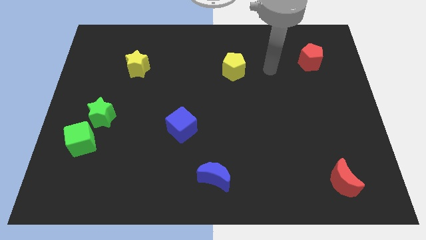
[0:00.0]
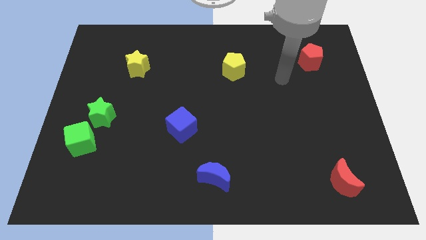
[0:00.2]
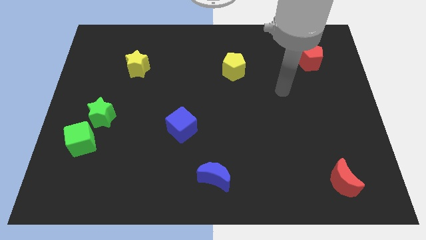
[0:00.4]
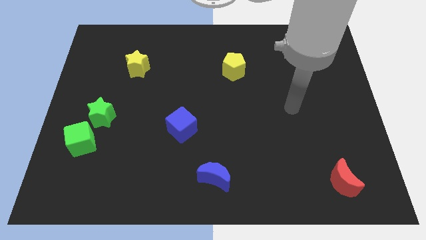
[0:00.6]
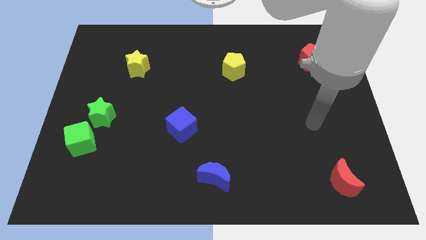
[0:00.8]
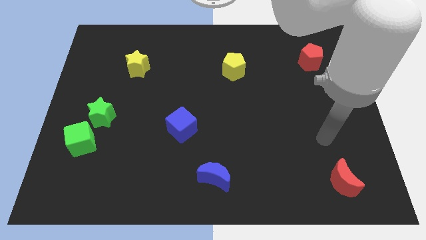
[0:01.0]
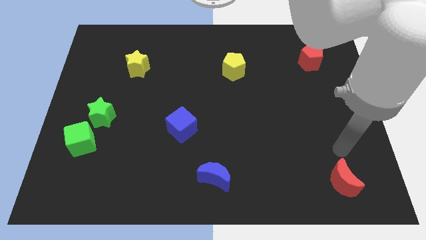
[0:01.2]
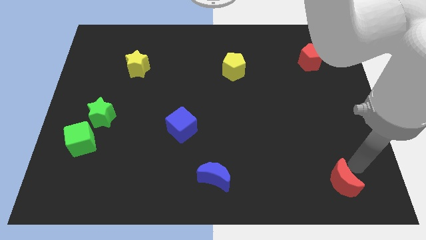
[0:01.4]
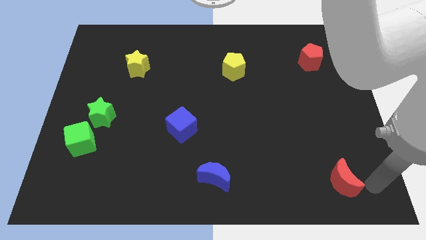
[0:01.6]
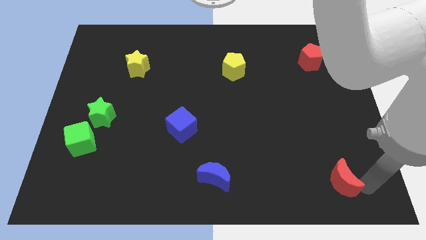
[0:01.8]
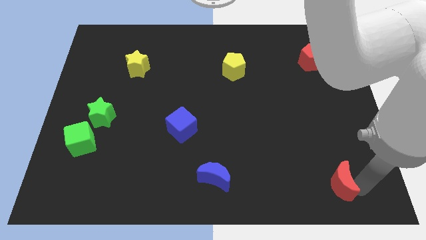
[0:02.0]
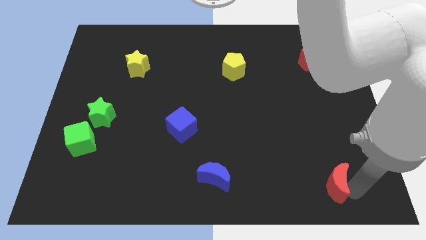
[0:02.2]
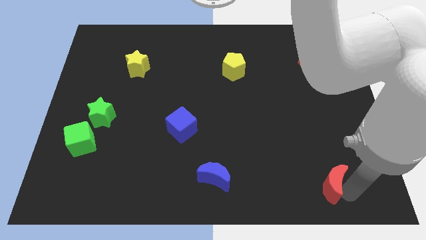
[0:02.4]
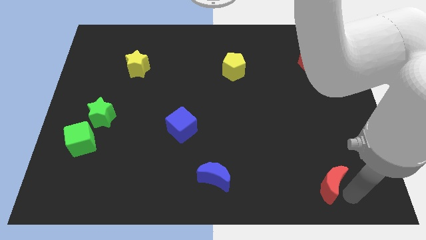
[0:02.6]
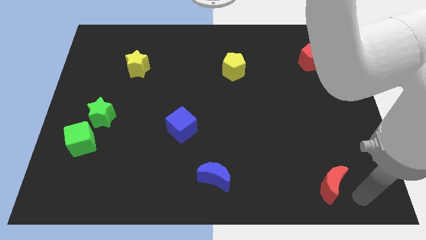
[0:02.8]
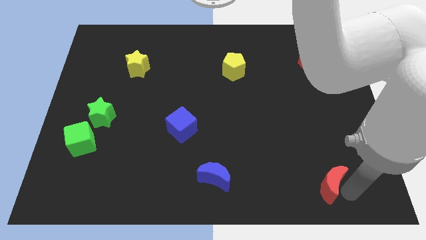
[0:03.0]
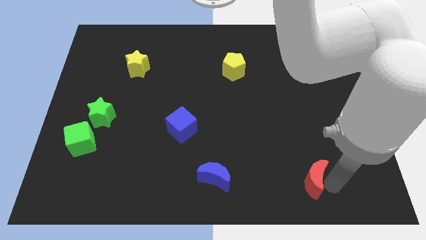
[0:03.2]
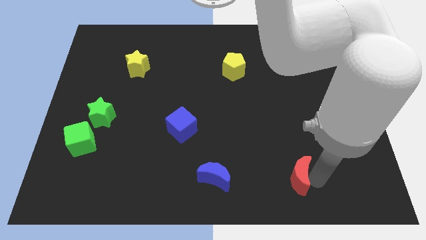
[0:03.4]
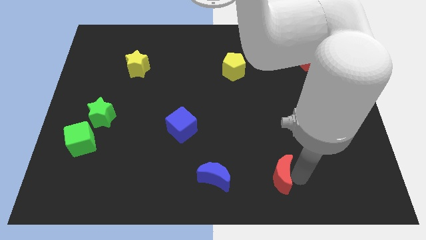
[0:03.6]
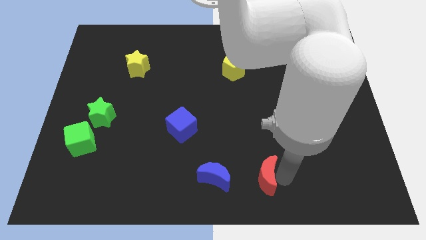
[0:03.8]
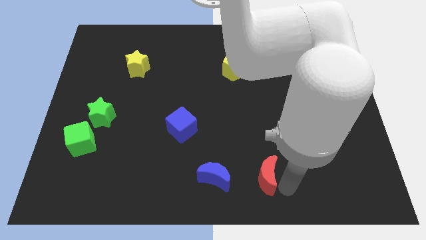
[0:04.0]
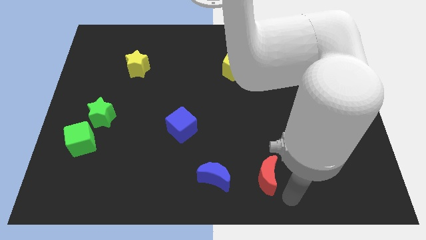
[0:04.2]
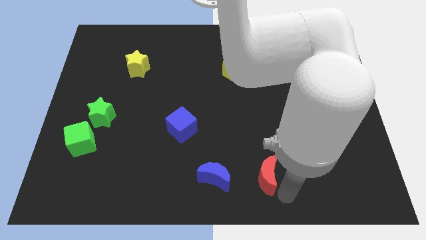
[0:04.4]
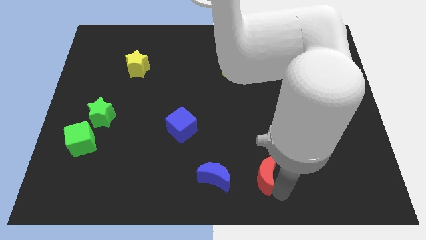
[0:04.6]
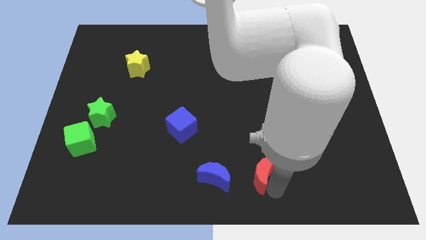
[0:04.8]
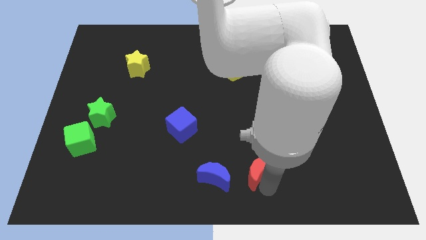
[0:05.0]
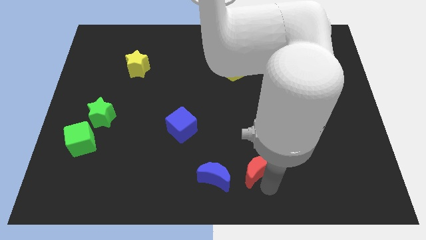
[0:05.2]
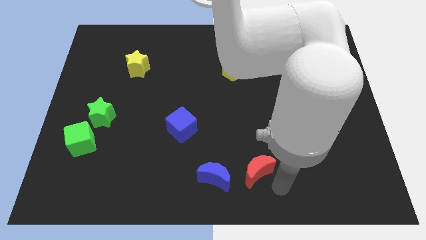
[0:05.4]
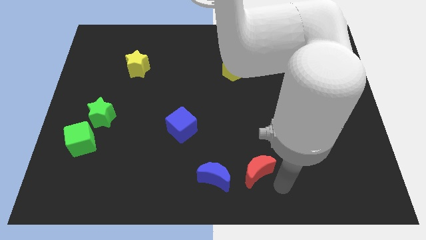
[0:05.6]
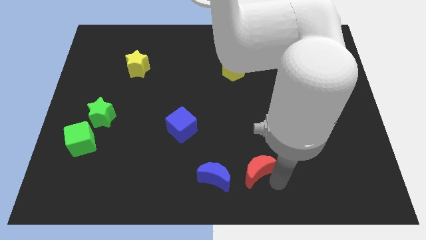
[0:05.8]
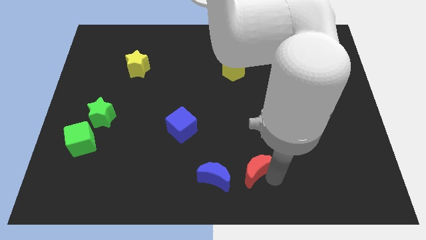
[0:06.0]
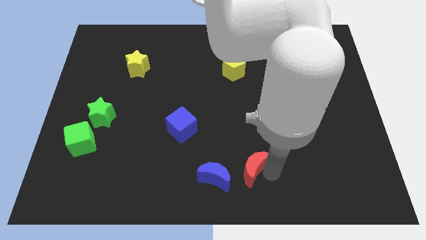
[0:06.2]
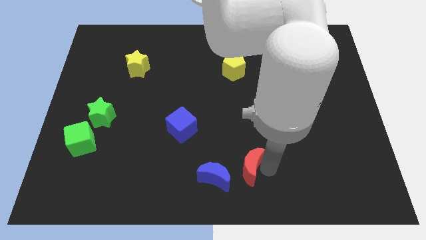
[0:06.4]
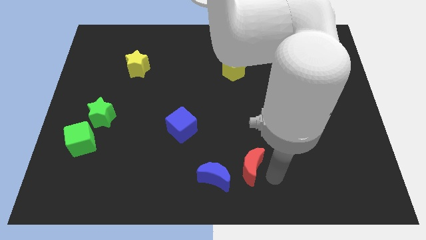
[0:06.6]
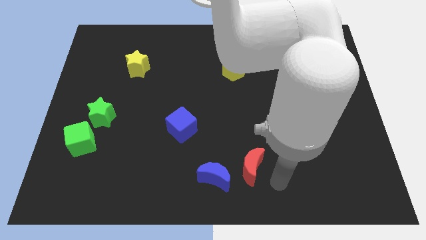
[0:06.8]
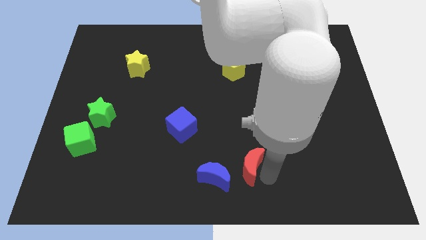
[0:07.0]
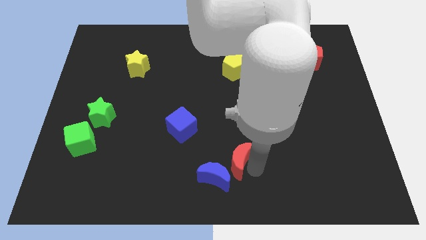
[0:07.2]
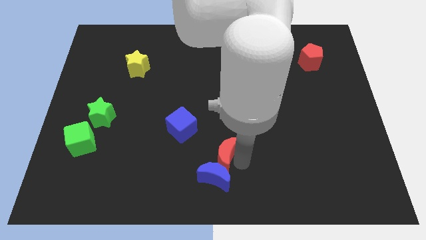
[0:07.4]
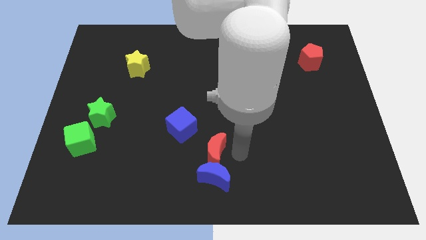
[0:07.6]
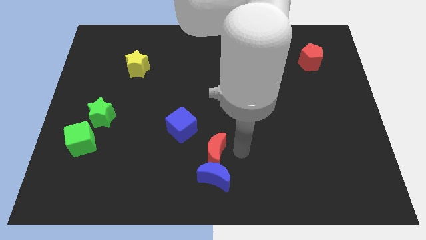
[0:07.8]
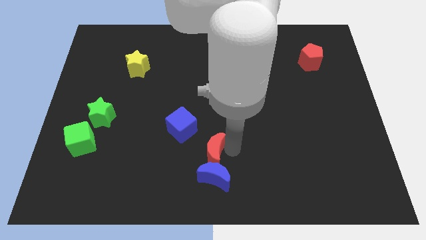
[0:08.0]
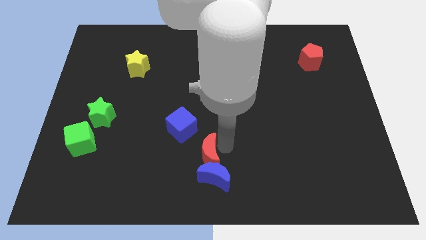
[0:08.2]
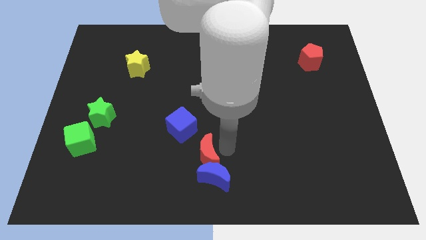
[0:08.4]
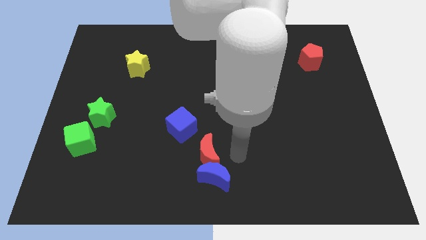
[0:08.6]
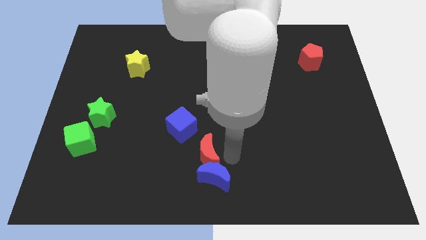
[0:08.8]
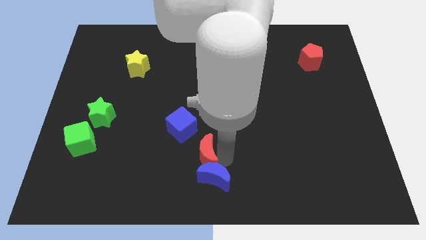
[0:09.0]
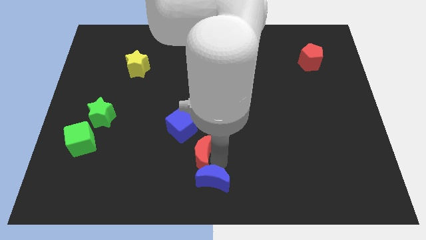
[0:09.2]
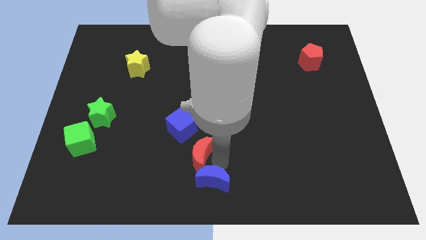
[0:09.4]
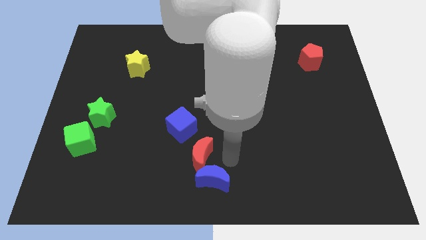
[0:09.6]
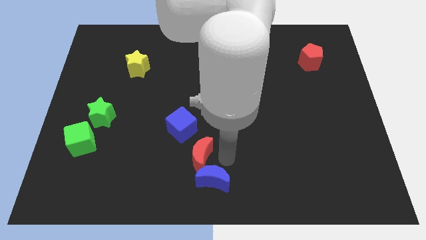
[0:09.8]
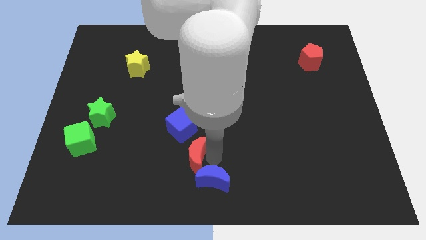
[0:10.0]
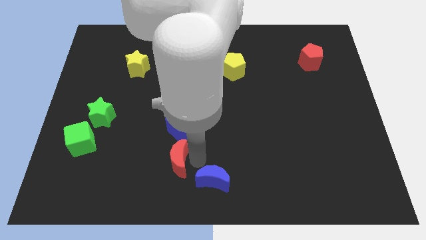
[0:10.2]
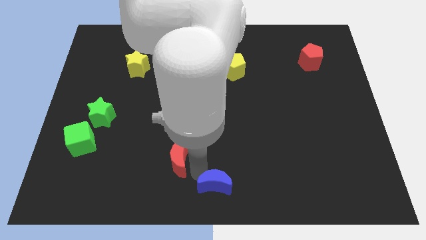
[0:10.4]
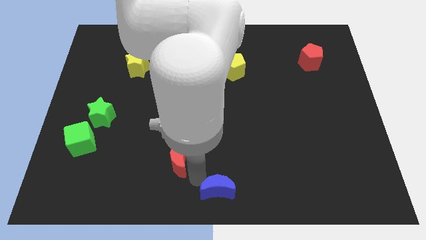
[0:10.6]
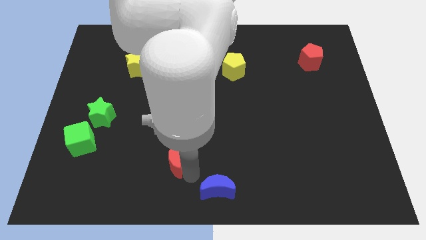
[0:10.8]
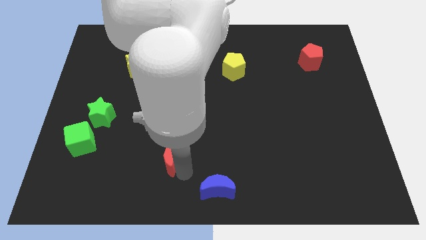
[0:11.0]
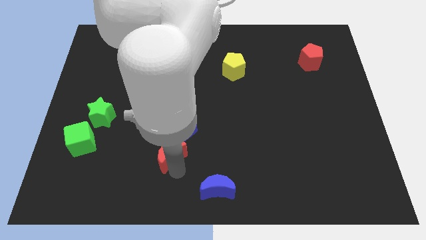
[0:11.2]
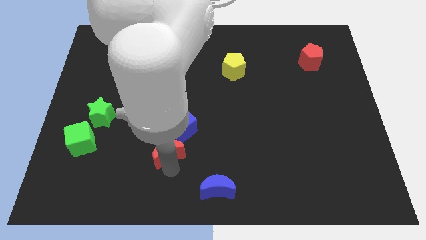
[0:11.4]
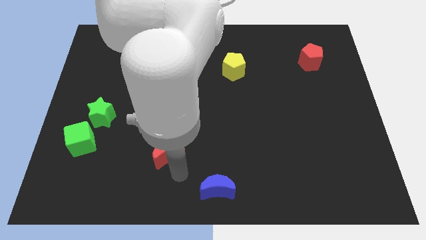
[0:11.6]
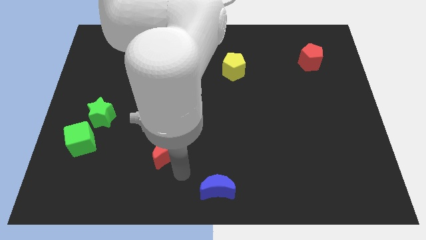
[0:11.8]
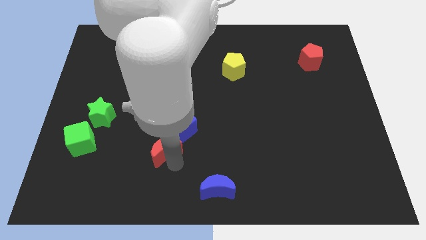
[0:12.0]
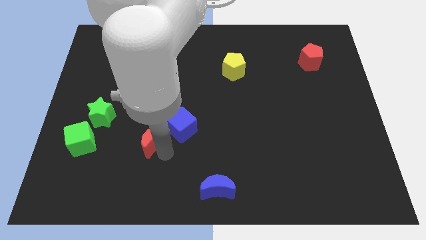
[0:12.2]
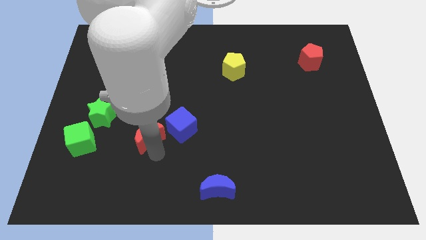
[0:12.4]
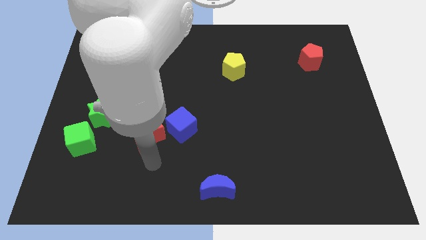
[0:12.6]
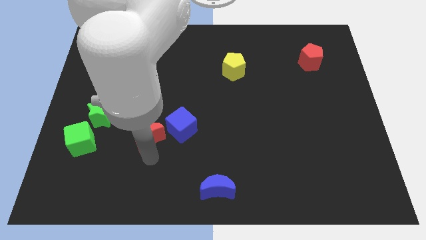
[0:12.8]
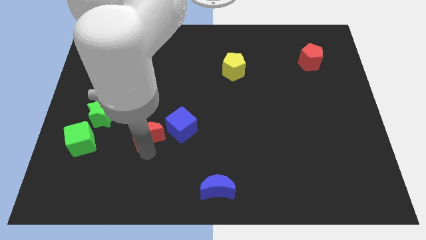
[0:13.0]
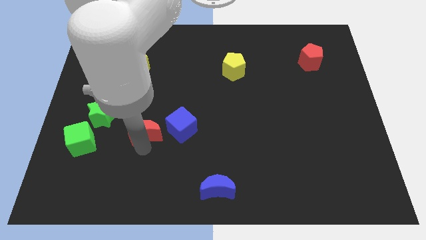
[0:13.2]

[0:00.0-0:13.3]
move the red moon to the right side of the green star

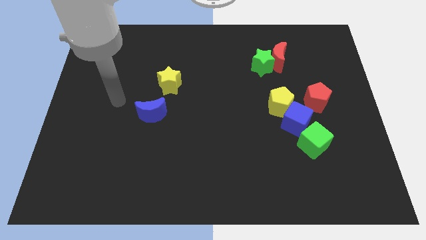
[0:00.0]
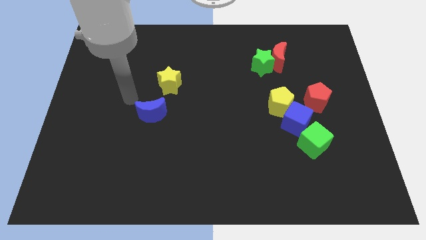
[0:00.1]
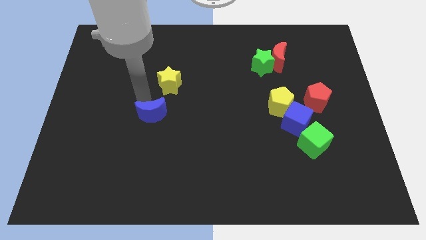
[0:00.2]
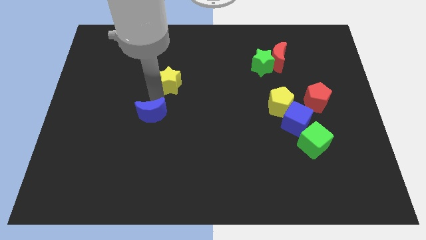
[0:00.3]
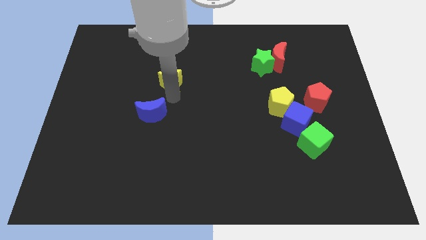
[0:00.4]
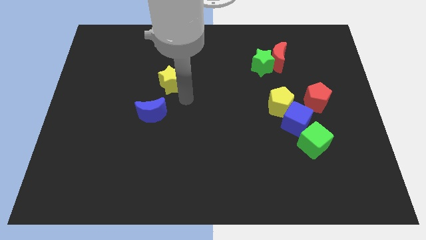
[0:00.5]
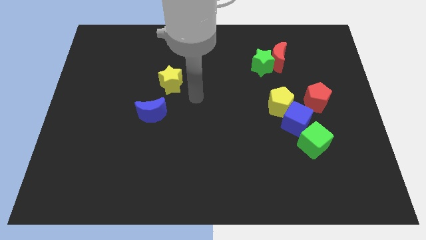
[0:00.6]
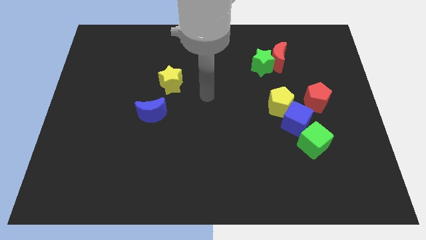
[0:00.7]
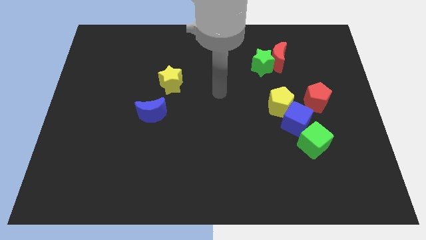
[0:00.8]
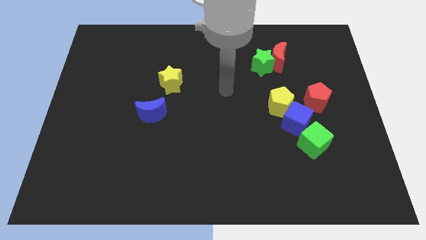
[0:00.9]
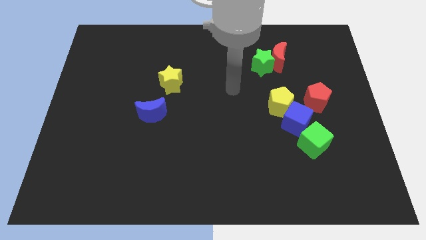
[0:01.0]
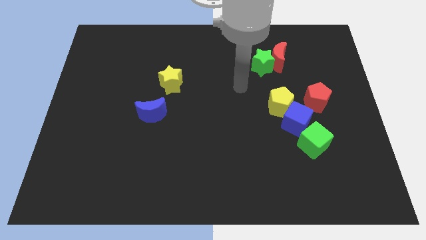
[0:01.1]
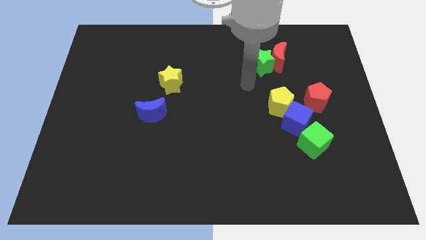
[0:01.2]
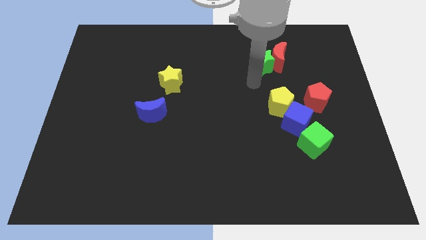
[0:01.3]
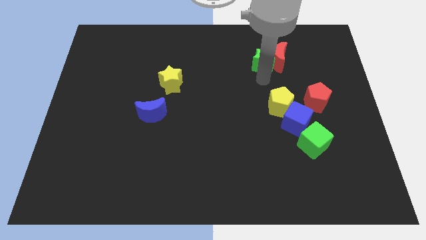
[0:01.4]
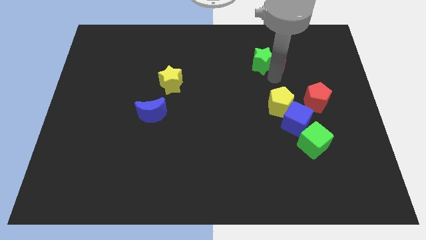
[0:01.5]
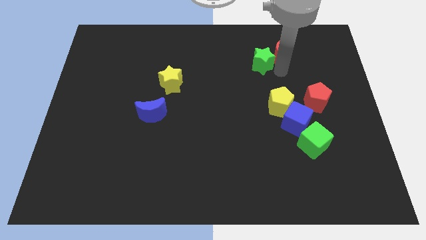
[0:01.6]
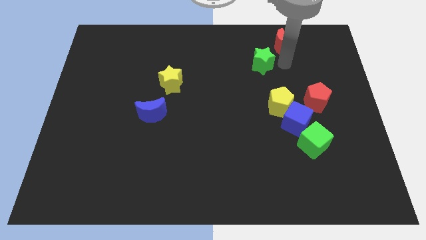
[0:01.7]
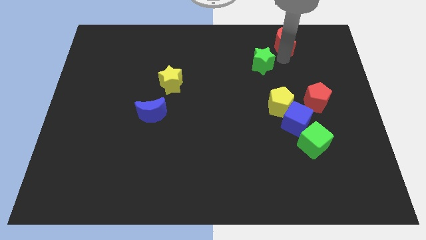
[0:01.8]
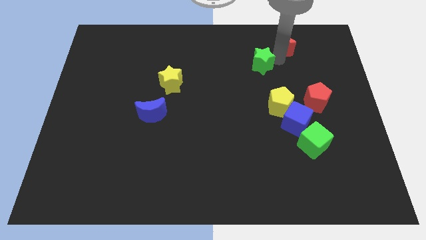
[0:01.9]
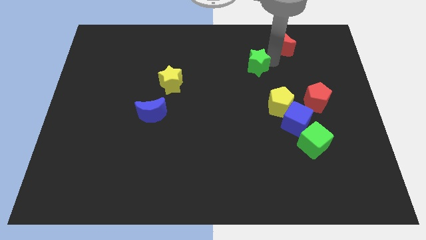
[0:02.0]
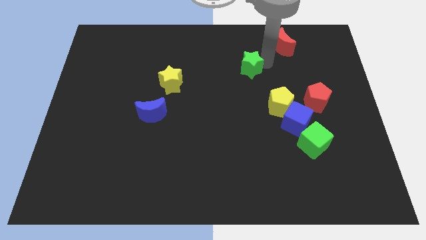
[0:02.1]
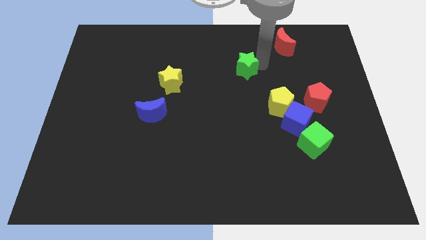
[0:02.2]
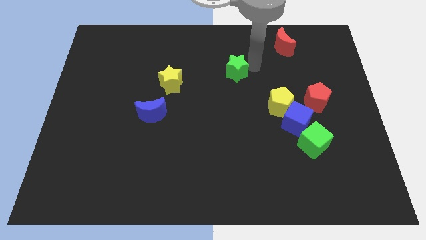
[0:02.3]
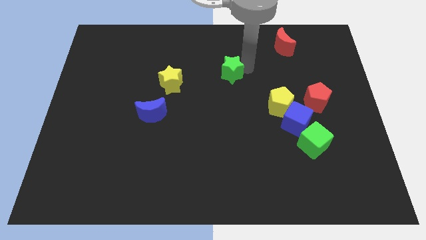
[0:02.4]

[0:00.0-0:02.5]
move the green star to the right side of the yellow star
